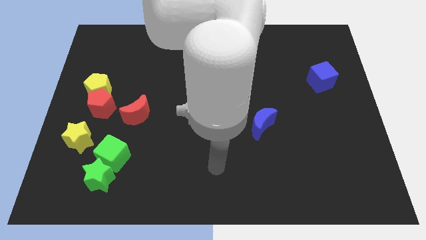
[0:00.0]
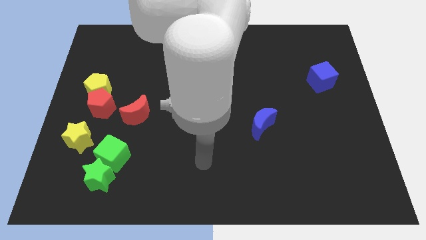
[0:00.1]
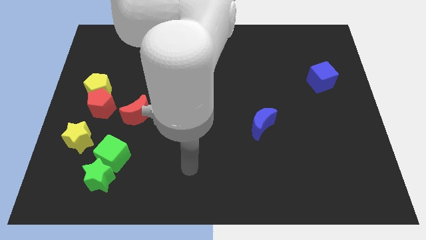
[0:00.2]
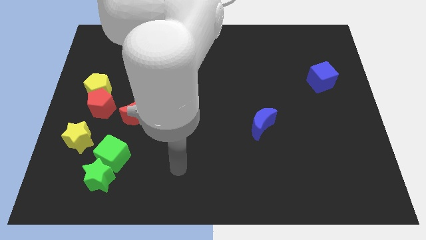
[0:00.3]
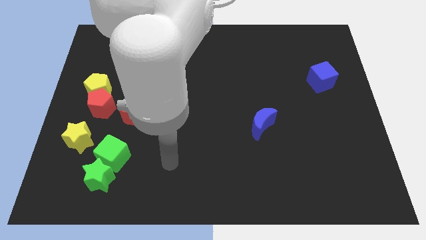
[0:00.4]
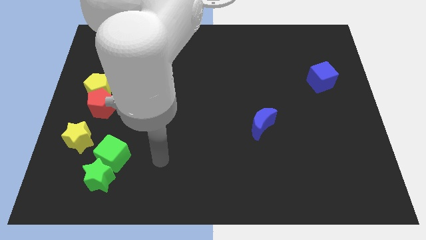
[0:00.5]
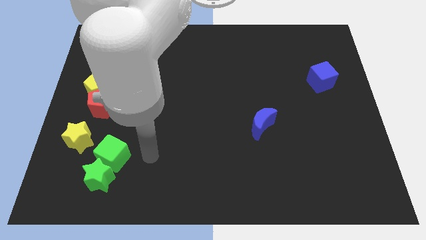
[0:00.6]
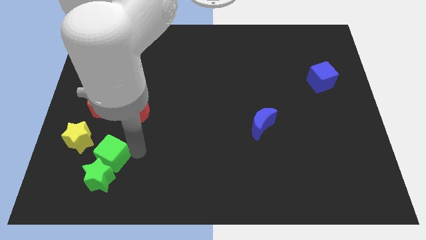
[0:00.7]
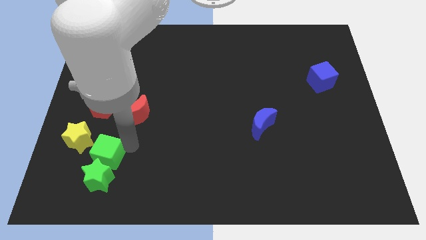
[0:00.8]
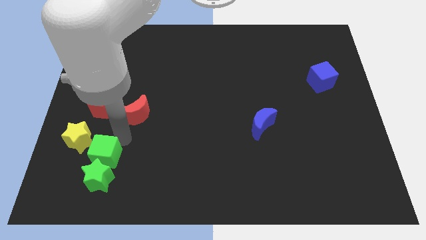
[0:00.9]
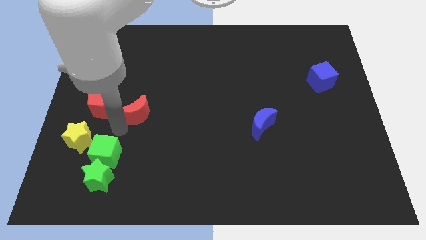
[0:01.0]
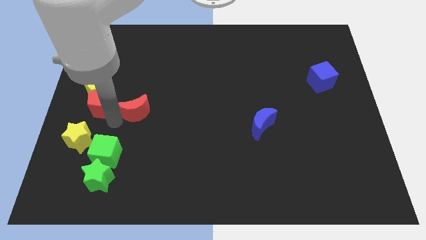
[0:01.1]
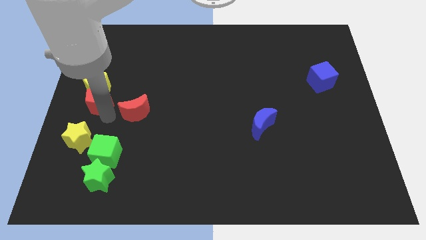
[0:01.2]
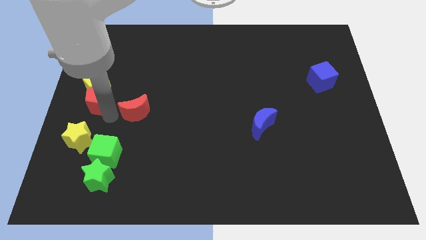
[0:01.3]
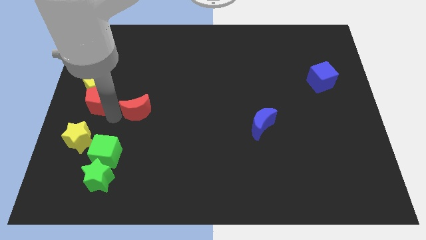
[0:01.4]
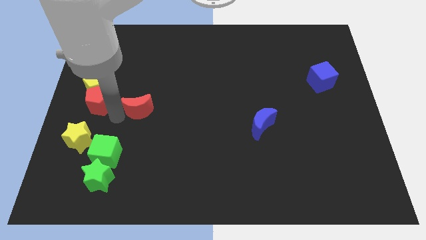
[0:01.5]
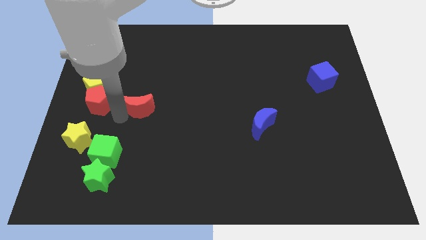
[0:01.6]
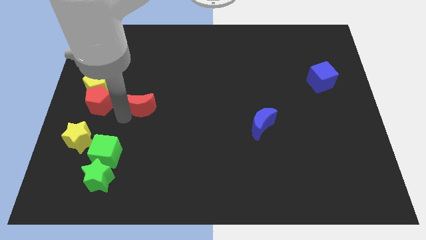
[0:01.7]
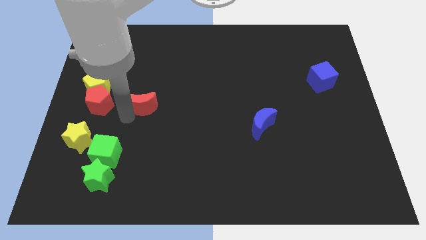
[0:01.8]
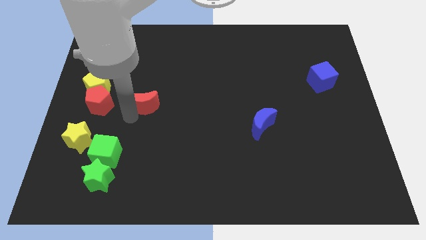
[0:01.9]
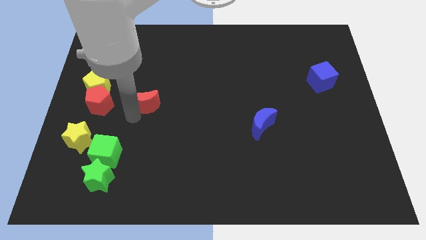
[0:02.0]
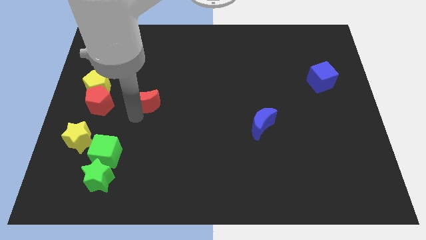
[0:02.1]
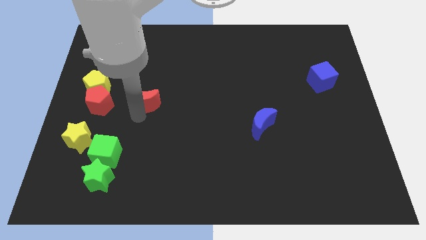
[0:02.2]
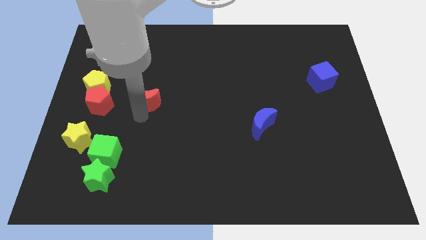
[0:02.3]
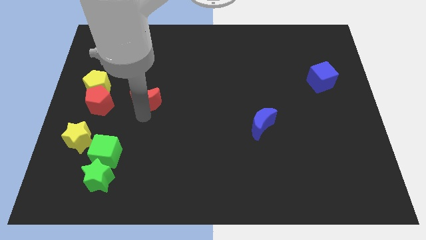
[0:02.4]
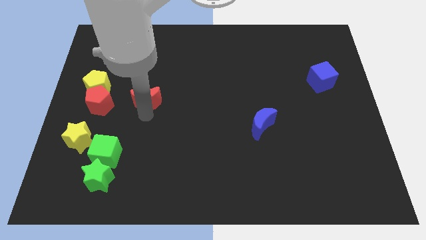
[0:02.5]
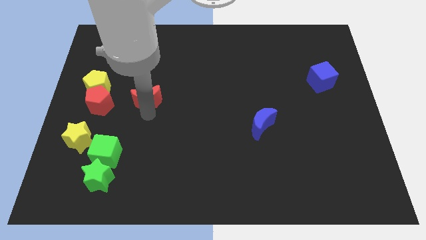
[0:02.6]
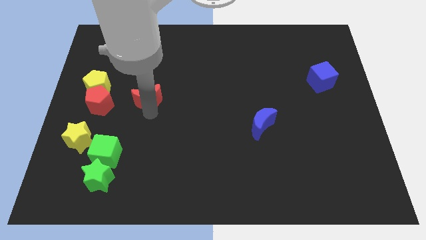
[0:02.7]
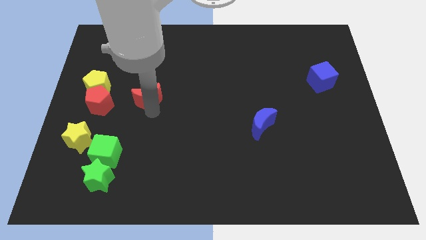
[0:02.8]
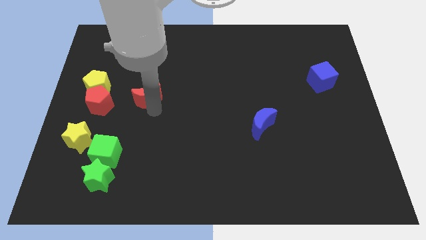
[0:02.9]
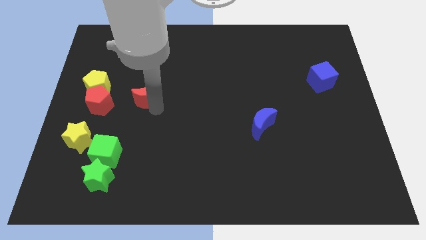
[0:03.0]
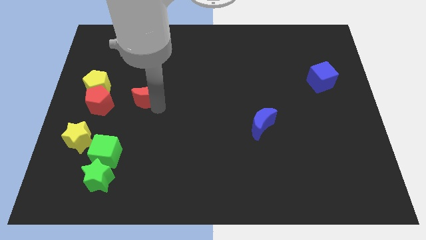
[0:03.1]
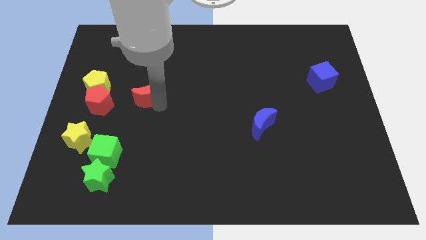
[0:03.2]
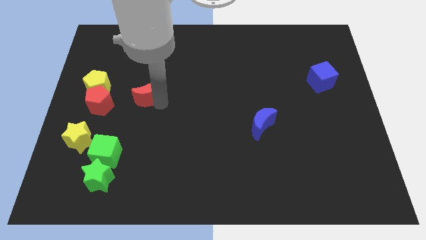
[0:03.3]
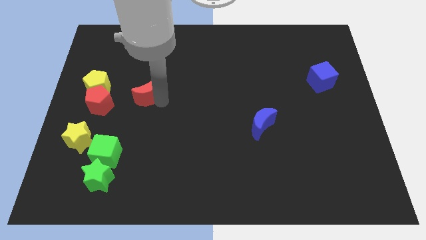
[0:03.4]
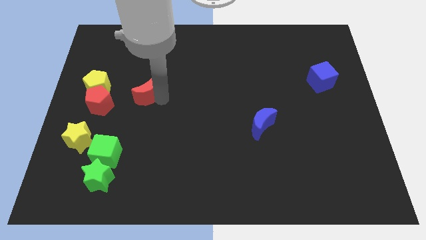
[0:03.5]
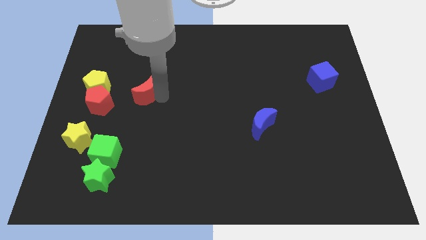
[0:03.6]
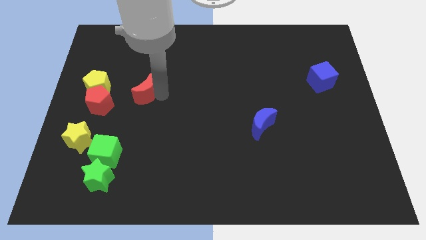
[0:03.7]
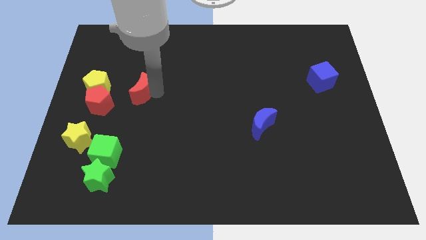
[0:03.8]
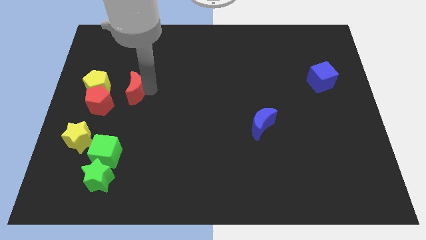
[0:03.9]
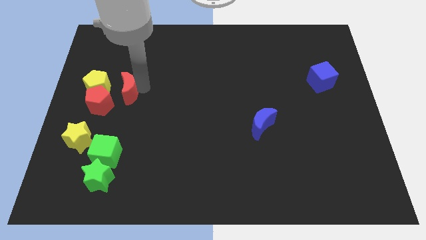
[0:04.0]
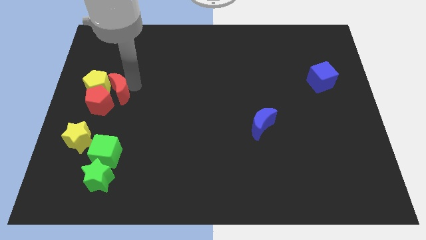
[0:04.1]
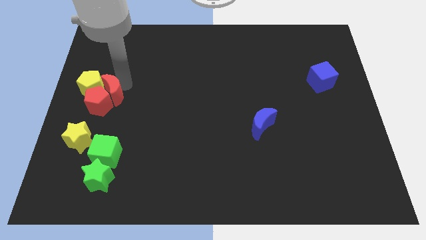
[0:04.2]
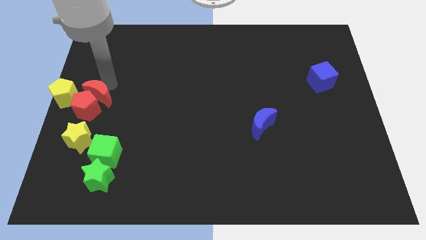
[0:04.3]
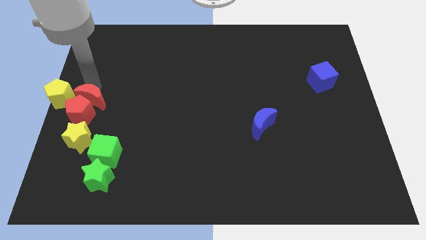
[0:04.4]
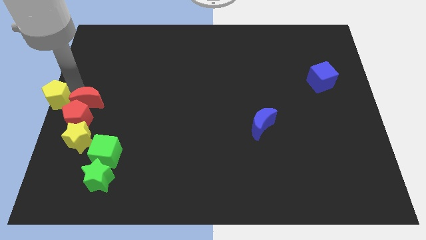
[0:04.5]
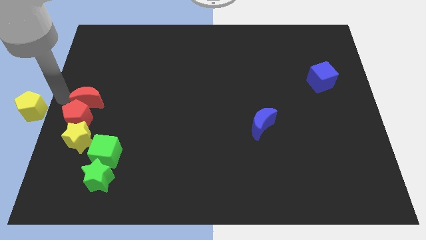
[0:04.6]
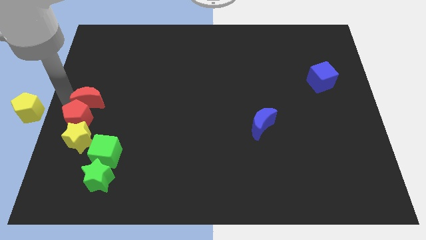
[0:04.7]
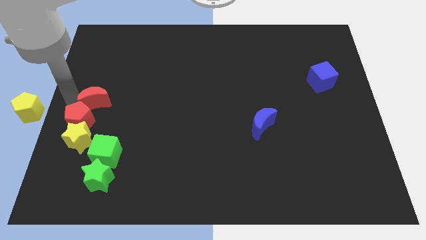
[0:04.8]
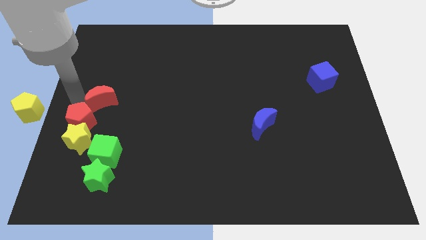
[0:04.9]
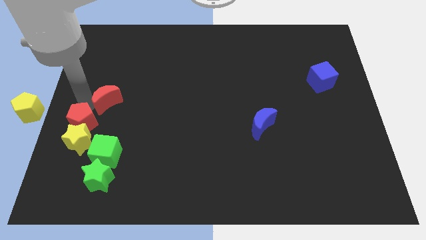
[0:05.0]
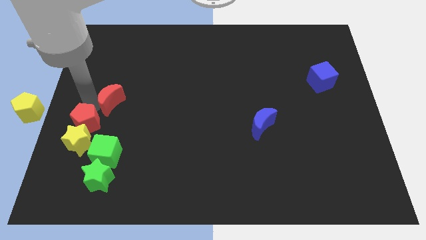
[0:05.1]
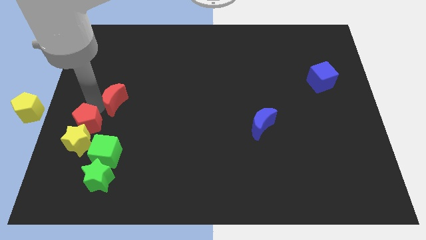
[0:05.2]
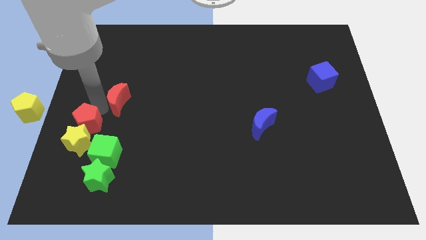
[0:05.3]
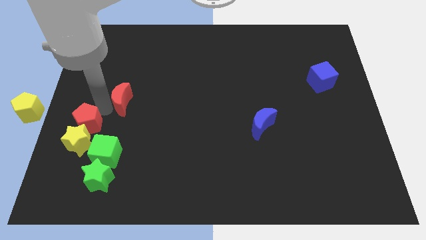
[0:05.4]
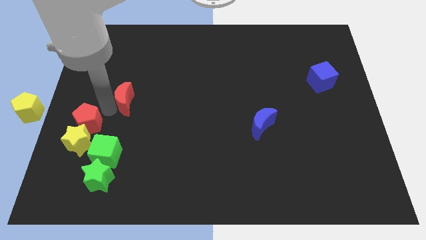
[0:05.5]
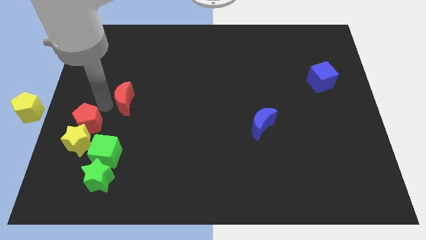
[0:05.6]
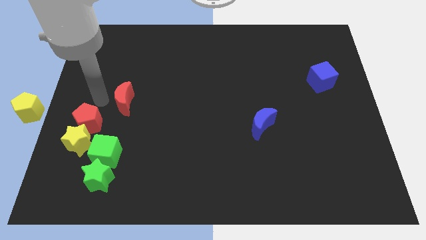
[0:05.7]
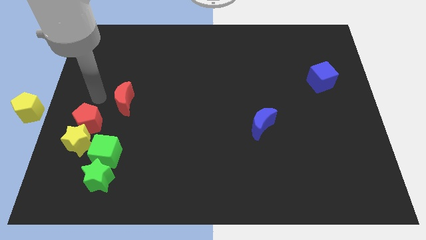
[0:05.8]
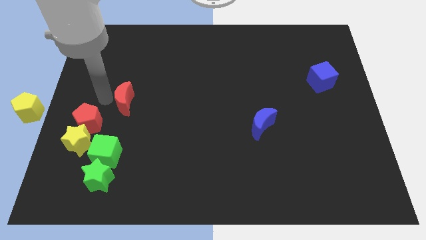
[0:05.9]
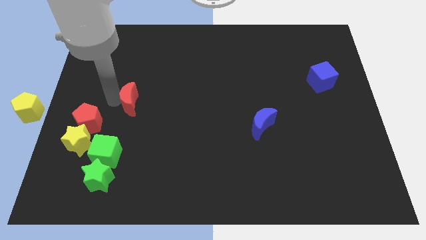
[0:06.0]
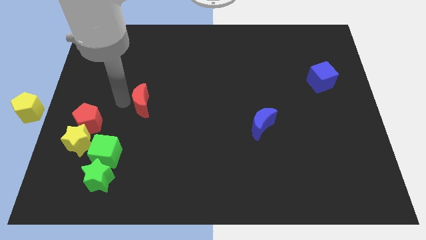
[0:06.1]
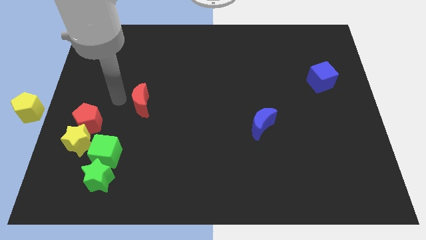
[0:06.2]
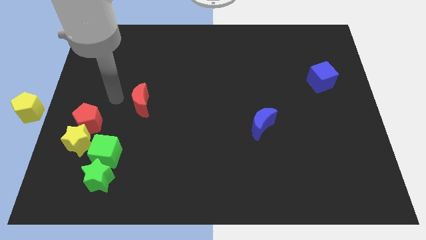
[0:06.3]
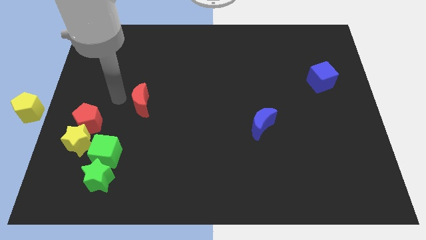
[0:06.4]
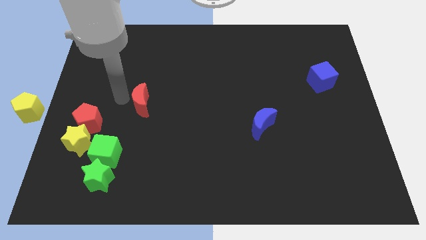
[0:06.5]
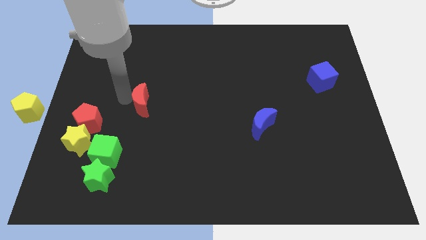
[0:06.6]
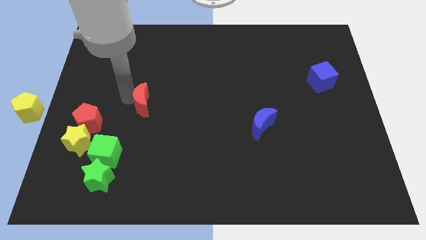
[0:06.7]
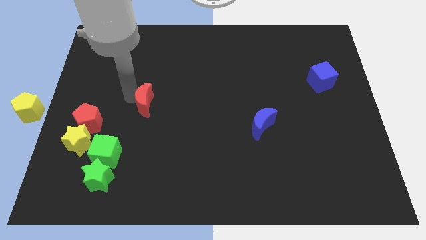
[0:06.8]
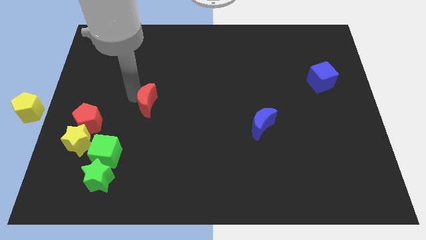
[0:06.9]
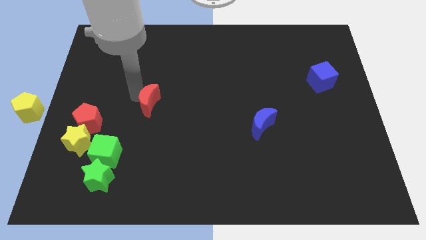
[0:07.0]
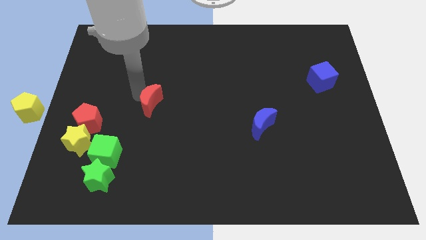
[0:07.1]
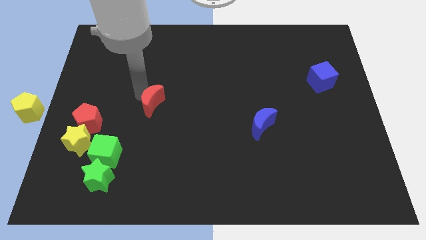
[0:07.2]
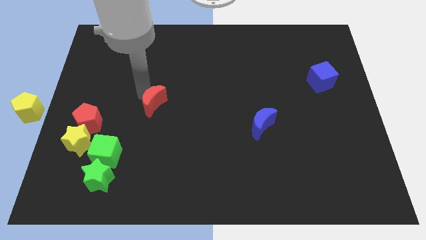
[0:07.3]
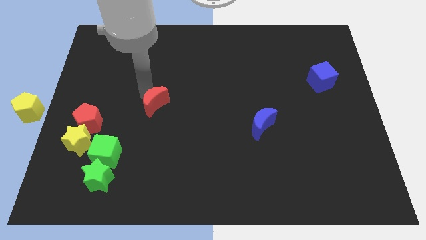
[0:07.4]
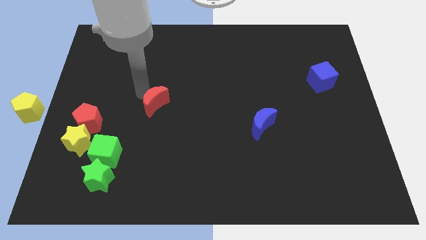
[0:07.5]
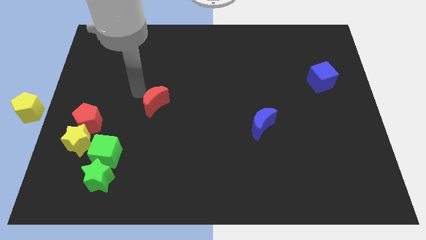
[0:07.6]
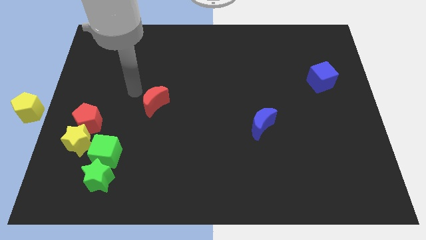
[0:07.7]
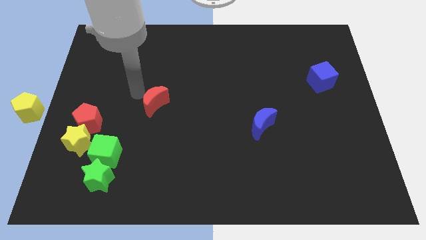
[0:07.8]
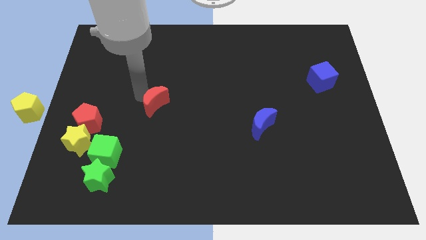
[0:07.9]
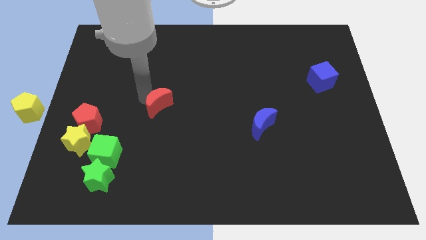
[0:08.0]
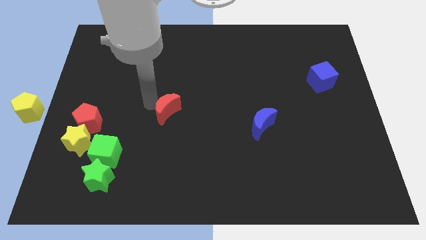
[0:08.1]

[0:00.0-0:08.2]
move the red moon to the center
